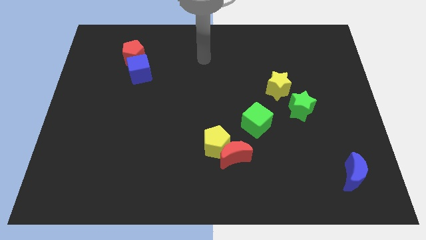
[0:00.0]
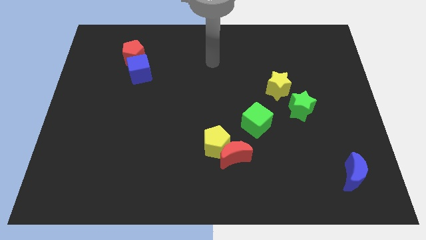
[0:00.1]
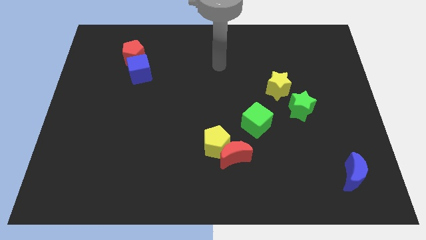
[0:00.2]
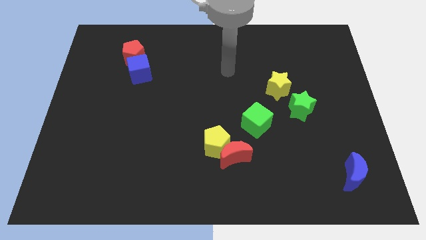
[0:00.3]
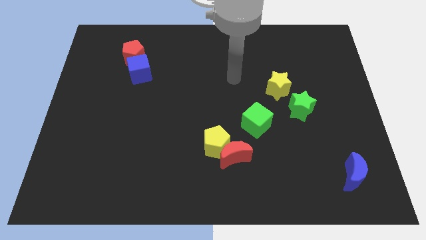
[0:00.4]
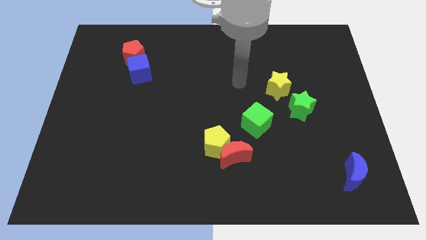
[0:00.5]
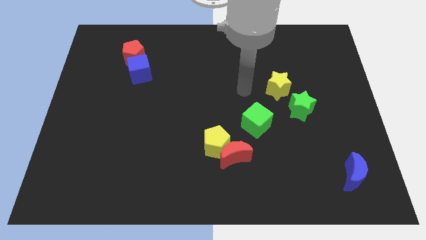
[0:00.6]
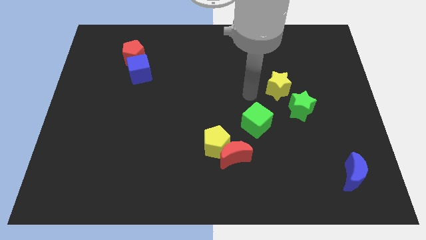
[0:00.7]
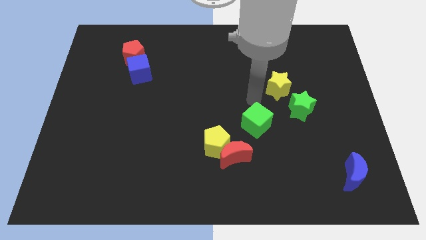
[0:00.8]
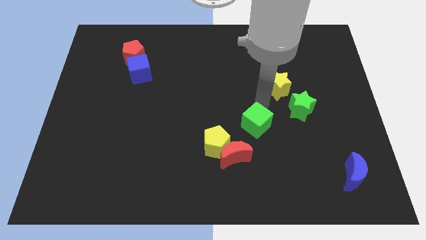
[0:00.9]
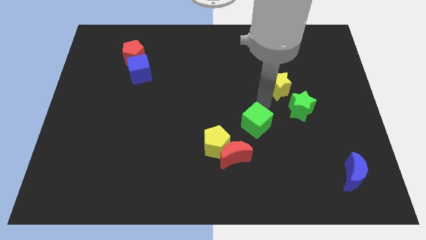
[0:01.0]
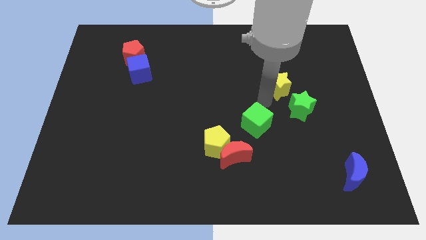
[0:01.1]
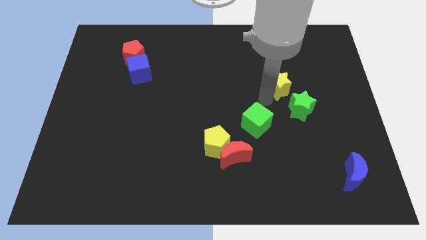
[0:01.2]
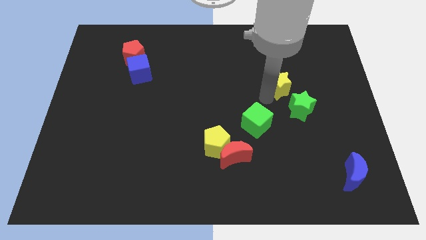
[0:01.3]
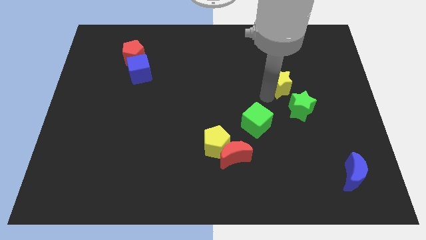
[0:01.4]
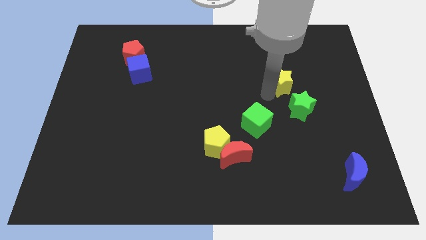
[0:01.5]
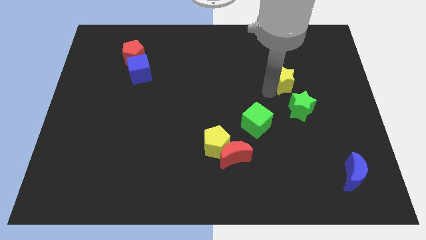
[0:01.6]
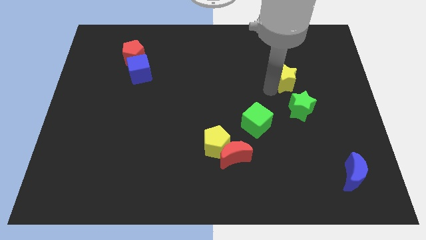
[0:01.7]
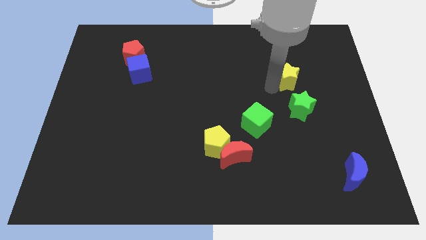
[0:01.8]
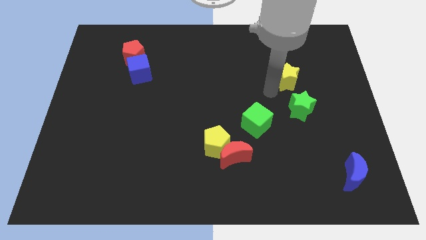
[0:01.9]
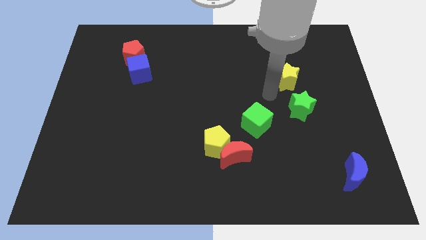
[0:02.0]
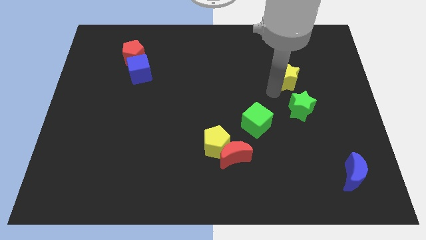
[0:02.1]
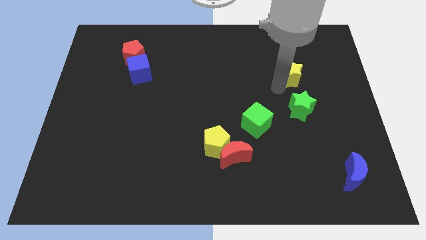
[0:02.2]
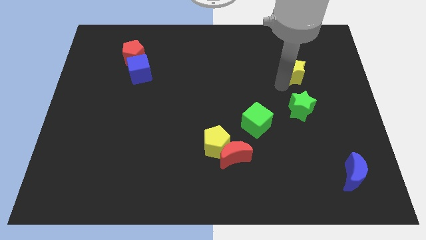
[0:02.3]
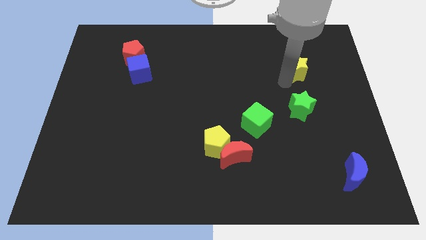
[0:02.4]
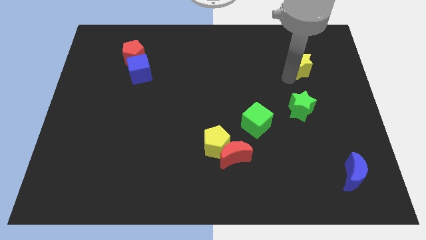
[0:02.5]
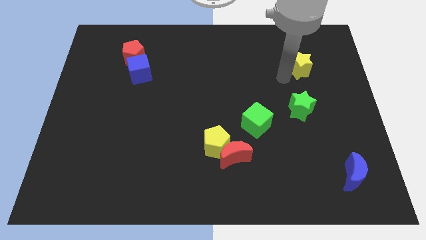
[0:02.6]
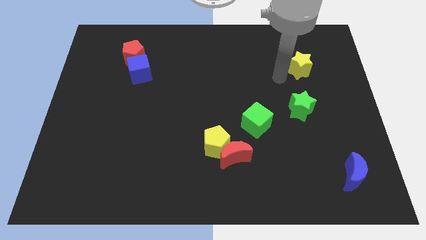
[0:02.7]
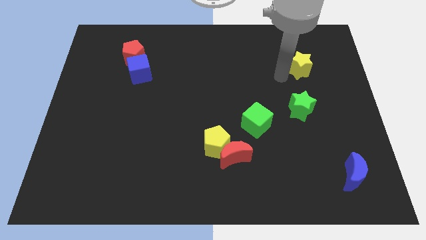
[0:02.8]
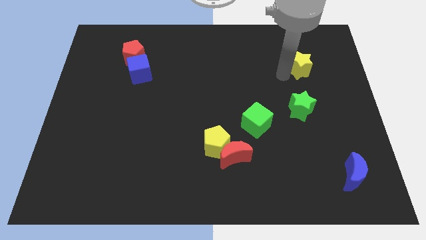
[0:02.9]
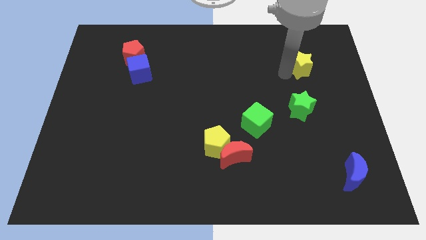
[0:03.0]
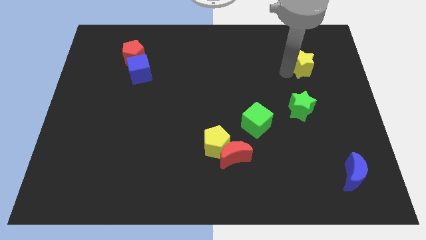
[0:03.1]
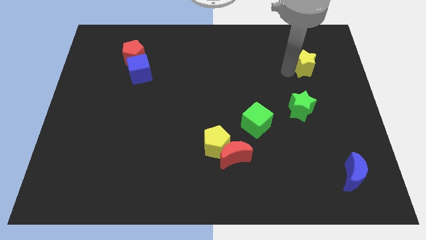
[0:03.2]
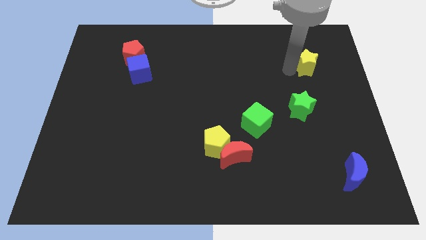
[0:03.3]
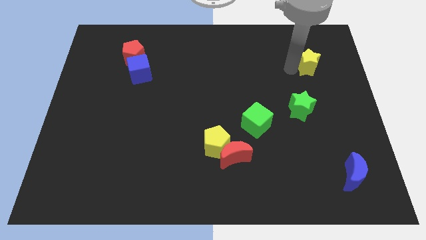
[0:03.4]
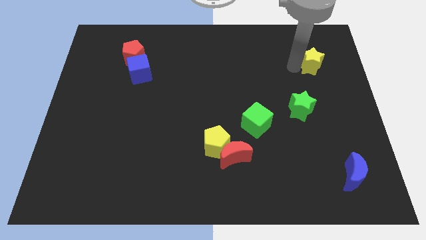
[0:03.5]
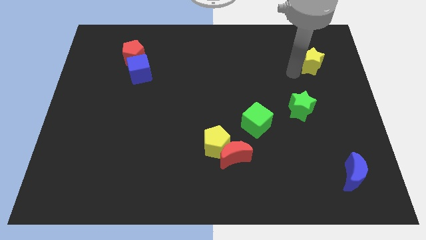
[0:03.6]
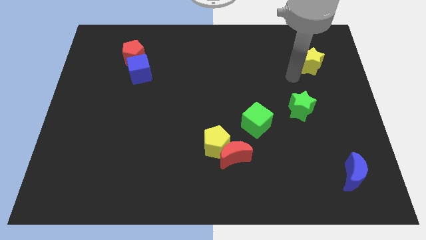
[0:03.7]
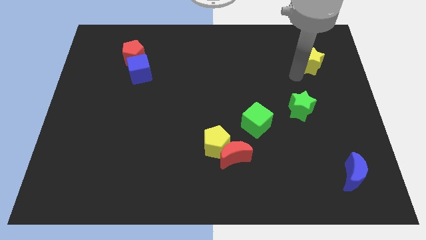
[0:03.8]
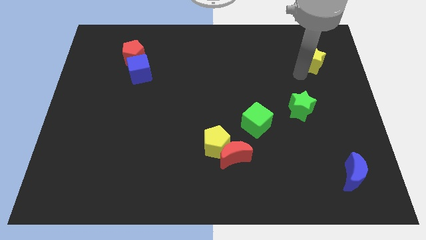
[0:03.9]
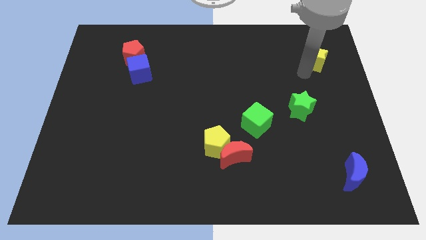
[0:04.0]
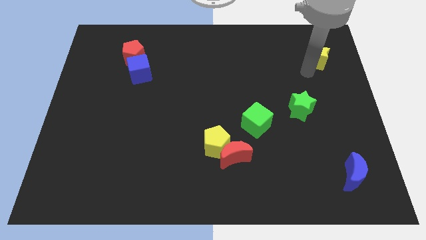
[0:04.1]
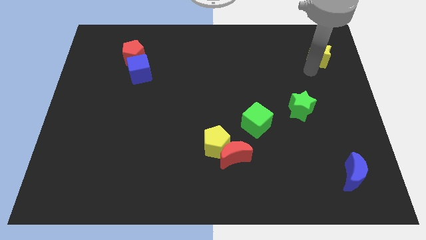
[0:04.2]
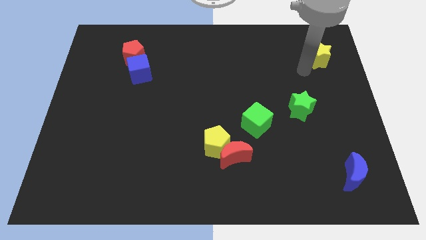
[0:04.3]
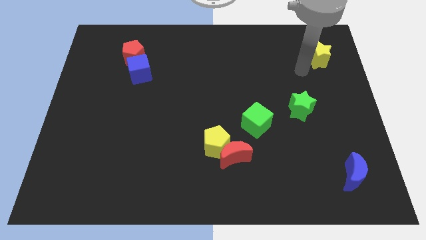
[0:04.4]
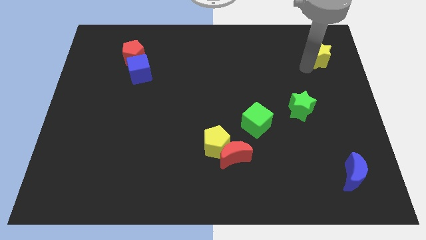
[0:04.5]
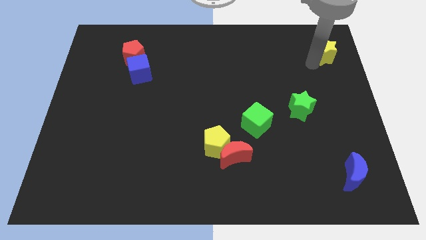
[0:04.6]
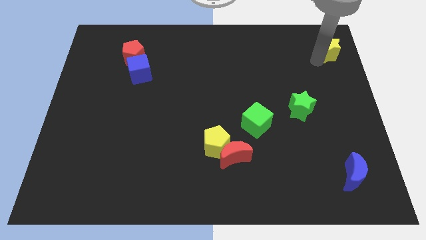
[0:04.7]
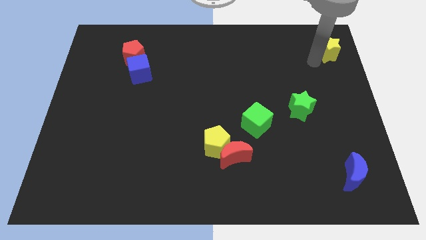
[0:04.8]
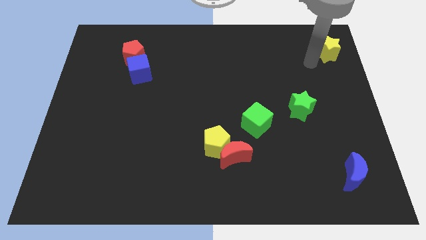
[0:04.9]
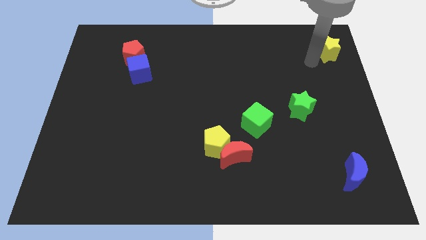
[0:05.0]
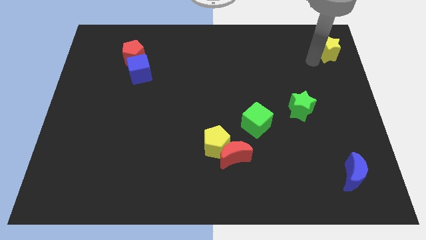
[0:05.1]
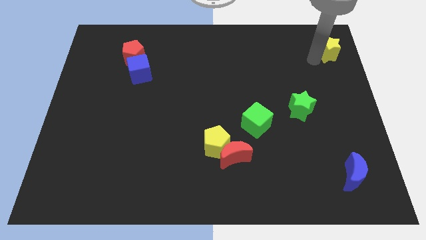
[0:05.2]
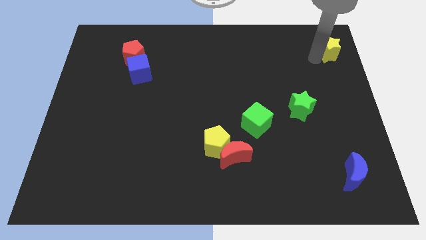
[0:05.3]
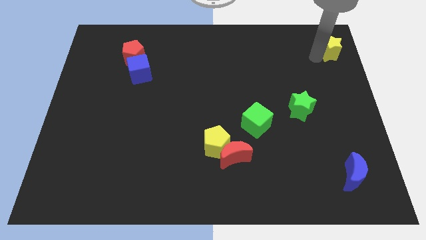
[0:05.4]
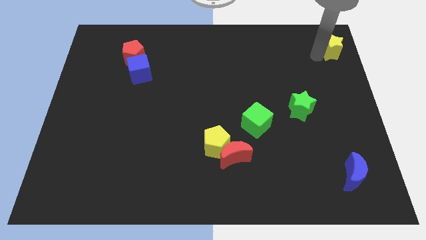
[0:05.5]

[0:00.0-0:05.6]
put the yellow star to the top right of the board

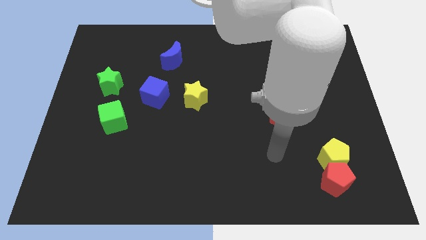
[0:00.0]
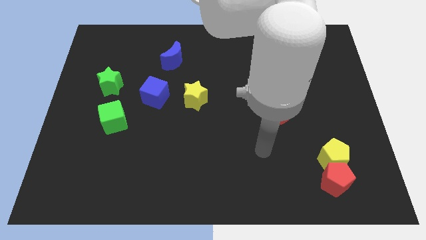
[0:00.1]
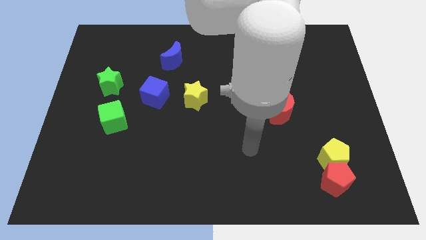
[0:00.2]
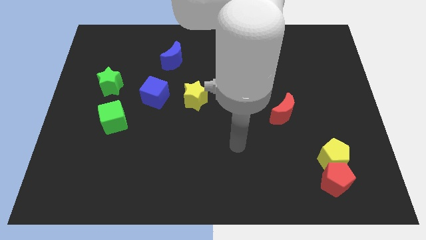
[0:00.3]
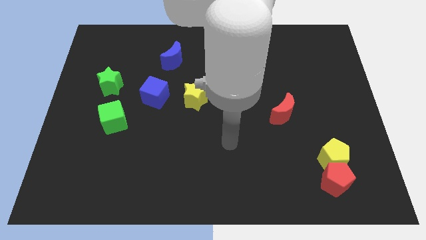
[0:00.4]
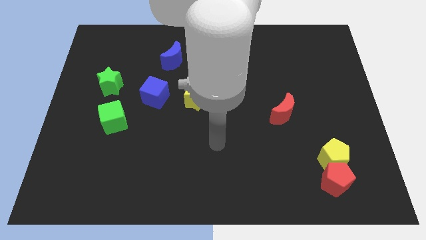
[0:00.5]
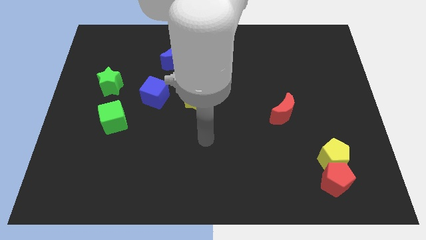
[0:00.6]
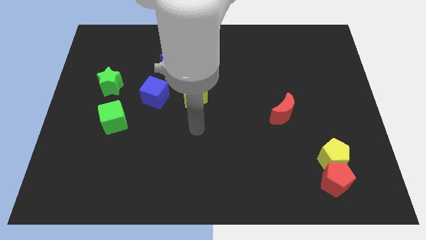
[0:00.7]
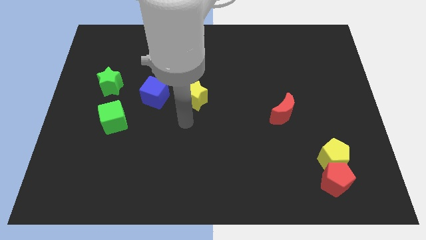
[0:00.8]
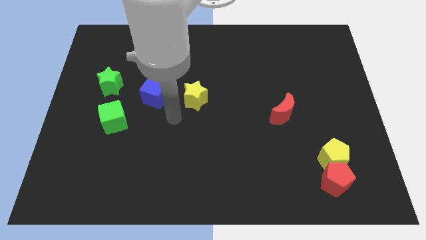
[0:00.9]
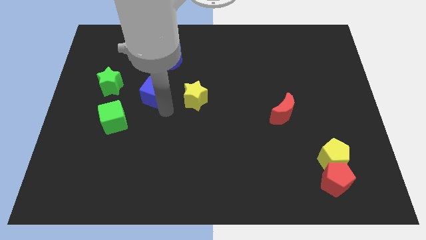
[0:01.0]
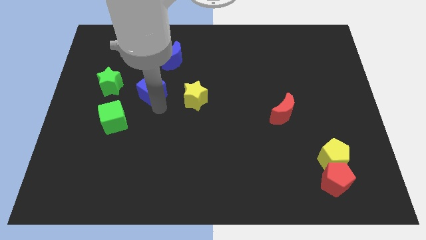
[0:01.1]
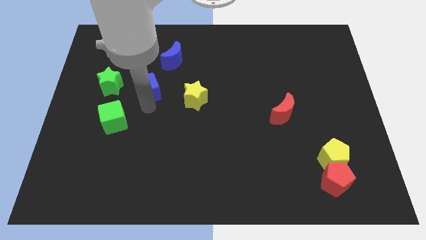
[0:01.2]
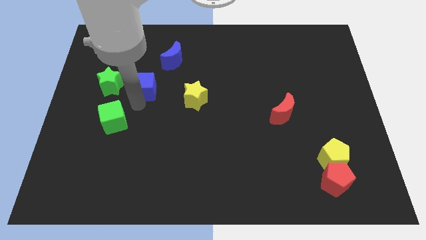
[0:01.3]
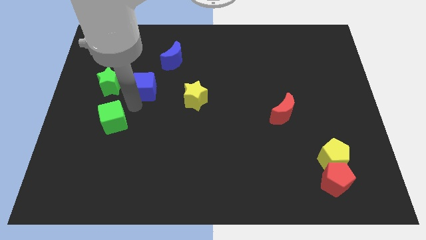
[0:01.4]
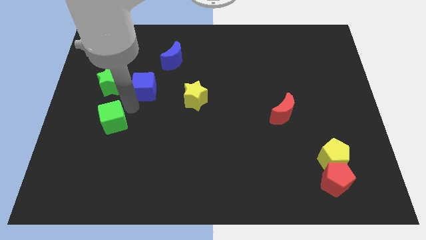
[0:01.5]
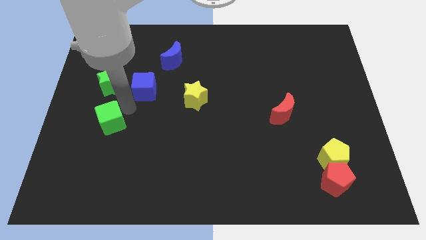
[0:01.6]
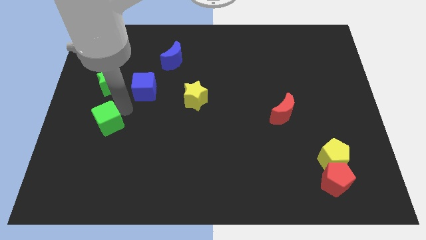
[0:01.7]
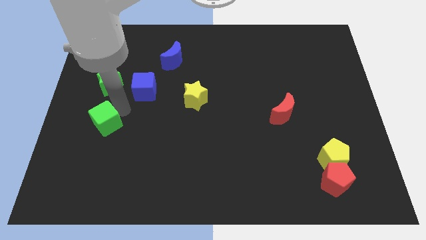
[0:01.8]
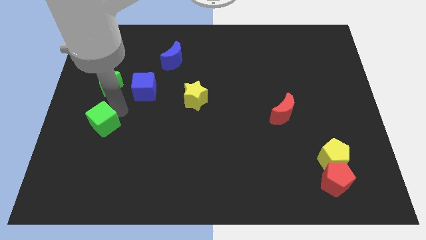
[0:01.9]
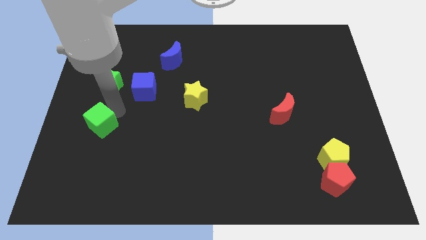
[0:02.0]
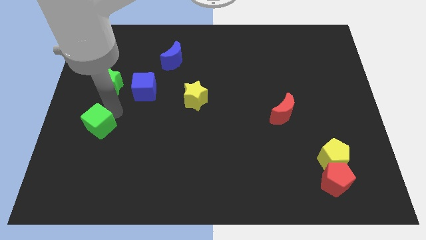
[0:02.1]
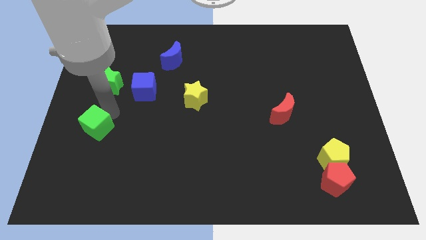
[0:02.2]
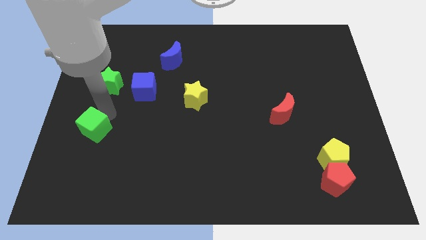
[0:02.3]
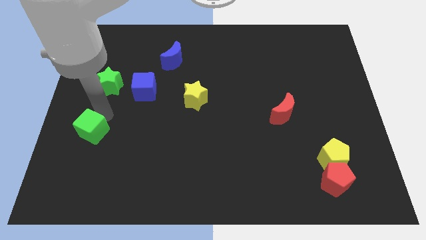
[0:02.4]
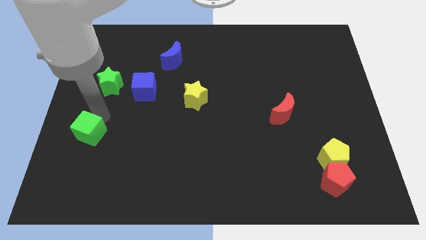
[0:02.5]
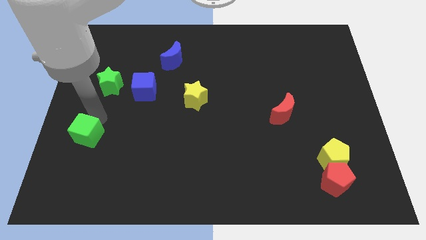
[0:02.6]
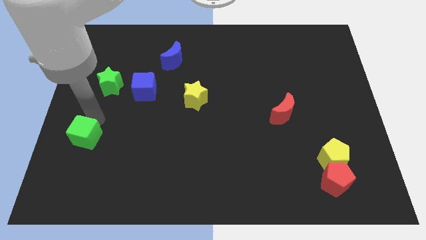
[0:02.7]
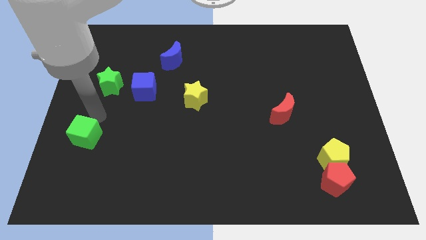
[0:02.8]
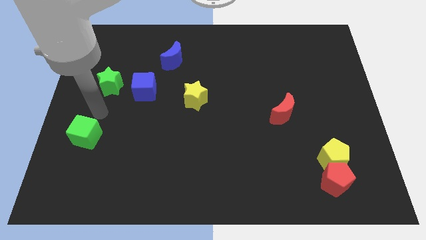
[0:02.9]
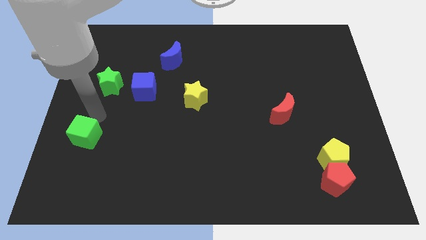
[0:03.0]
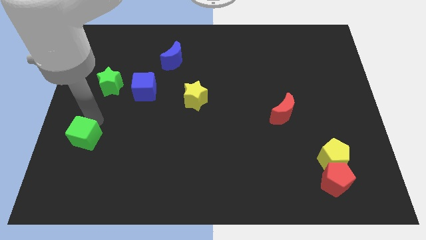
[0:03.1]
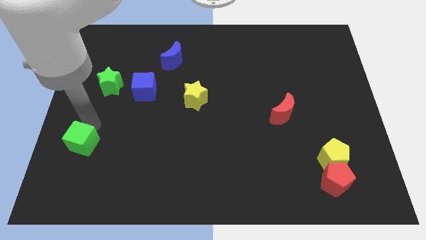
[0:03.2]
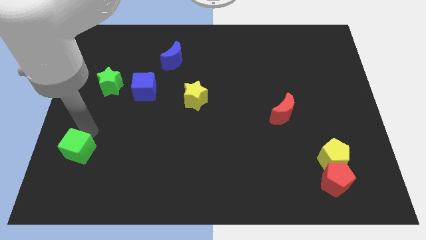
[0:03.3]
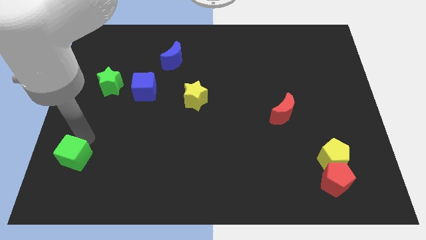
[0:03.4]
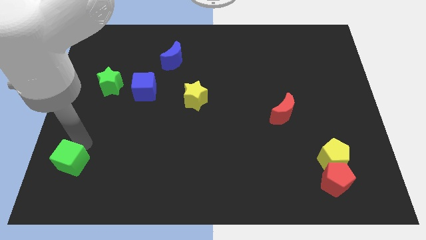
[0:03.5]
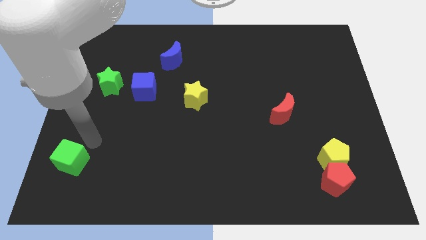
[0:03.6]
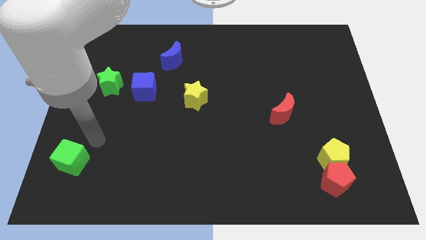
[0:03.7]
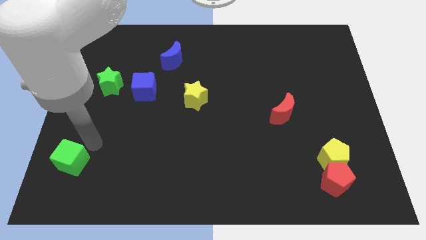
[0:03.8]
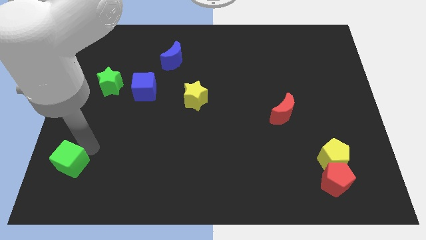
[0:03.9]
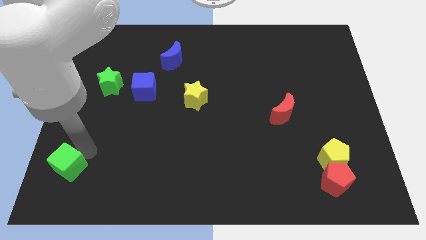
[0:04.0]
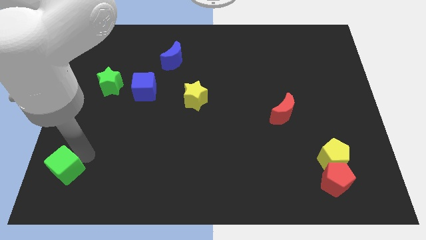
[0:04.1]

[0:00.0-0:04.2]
push the green cube to the bottom left corner
